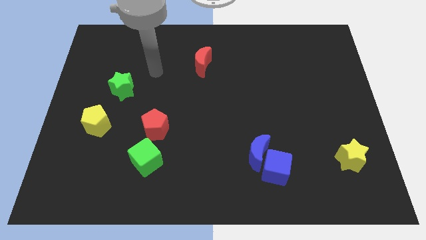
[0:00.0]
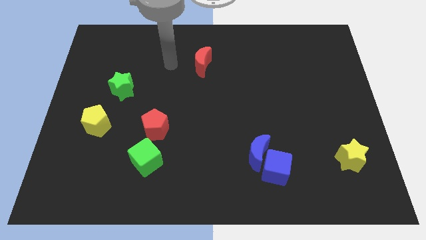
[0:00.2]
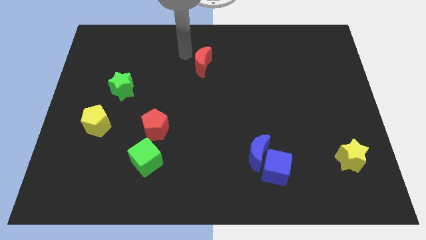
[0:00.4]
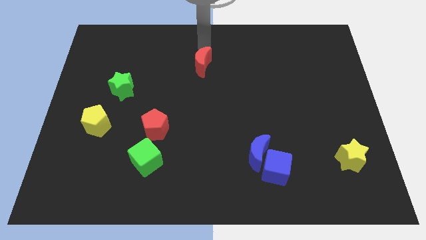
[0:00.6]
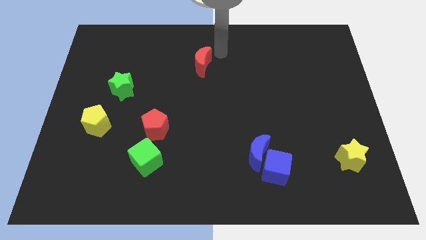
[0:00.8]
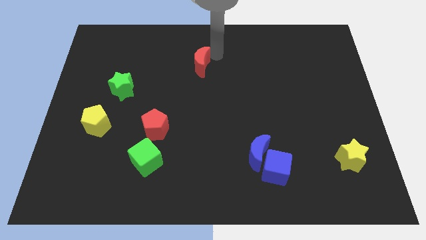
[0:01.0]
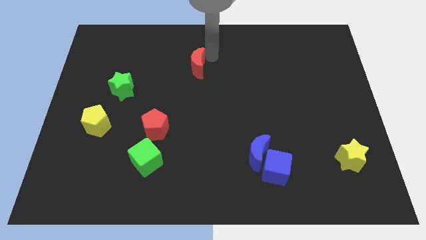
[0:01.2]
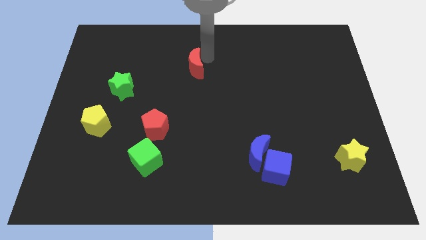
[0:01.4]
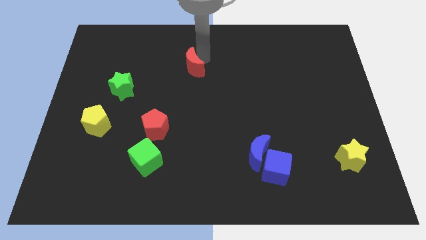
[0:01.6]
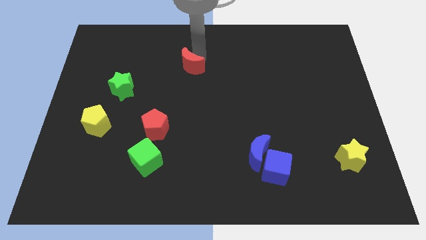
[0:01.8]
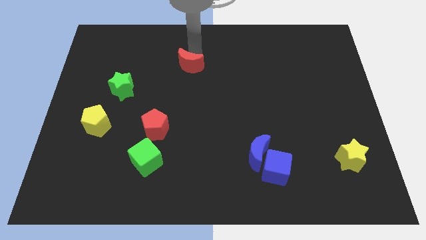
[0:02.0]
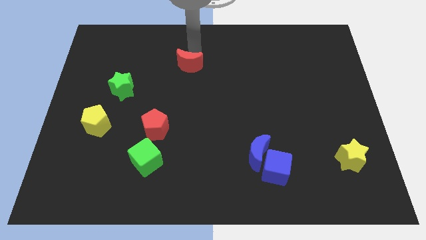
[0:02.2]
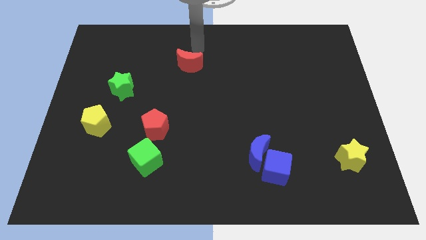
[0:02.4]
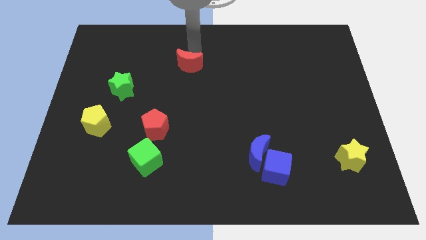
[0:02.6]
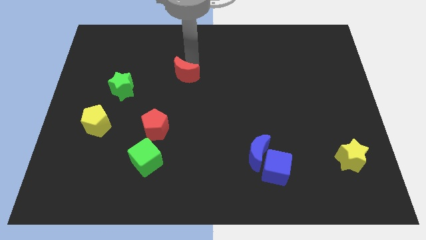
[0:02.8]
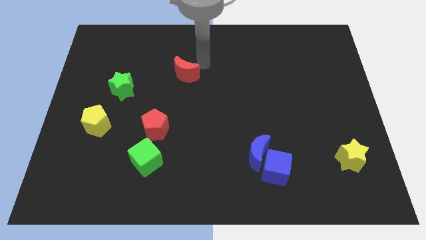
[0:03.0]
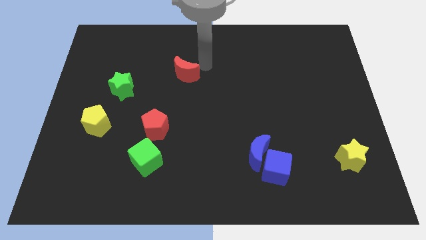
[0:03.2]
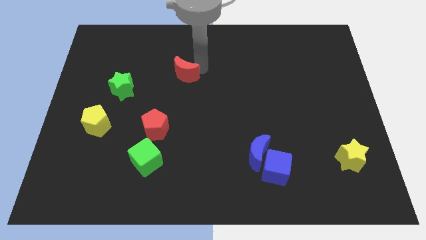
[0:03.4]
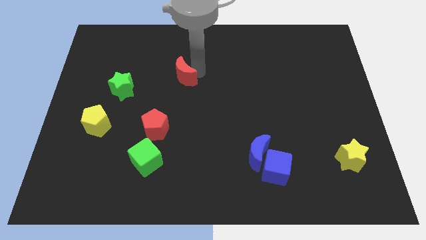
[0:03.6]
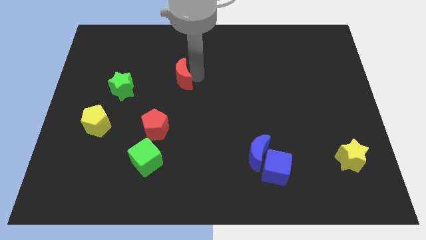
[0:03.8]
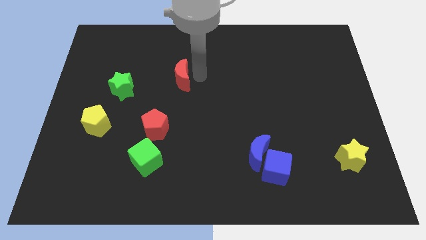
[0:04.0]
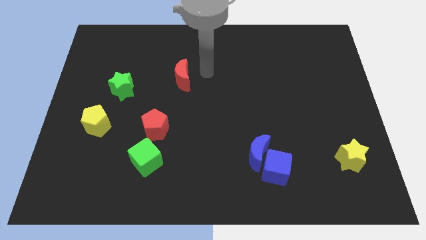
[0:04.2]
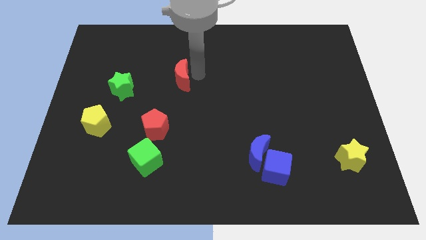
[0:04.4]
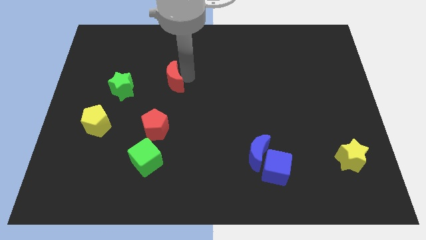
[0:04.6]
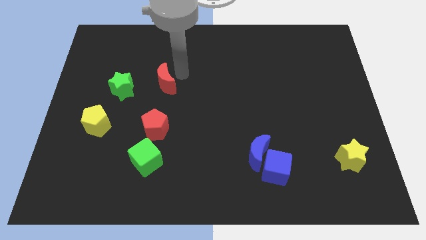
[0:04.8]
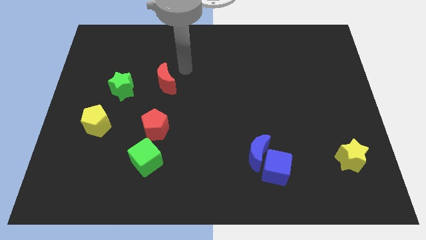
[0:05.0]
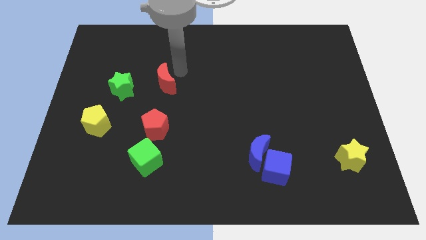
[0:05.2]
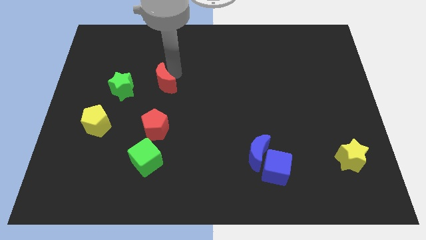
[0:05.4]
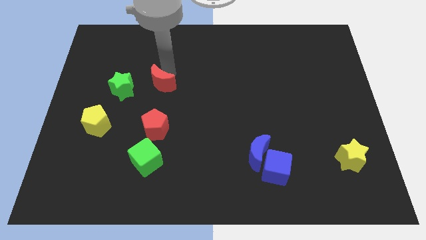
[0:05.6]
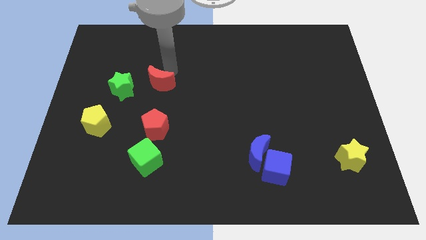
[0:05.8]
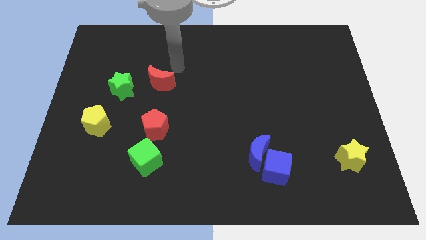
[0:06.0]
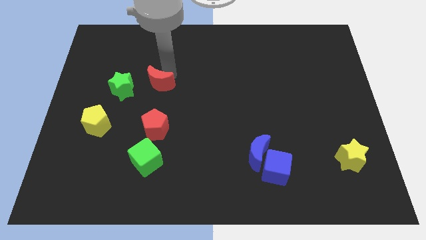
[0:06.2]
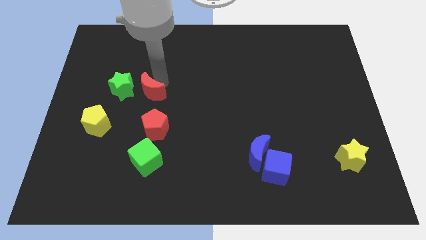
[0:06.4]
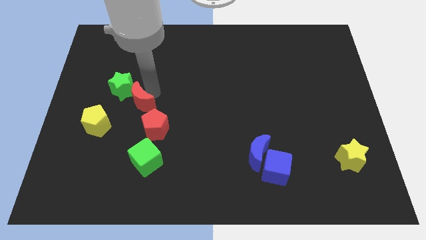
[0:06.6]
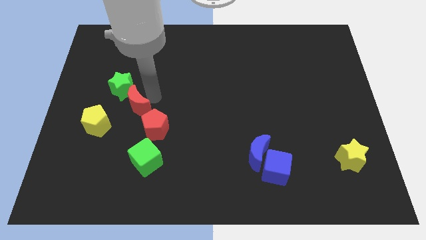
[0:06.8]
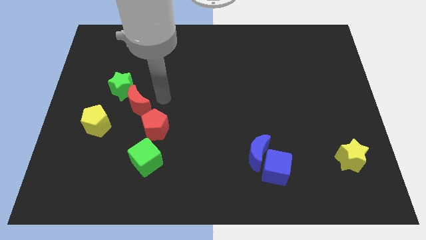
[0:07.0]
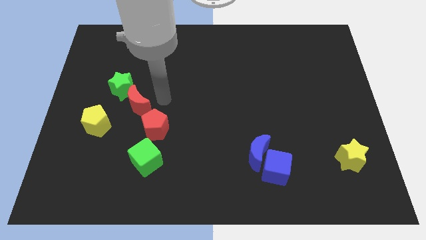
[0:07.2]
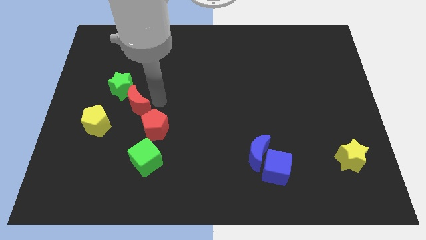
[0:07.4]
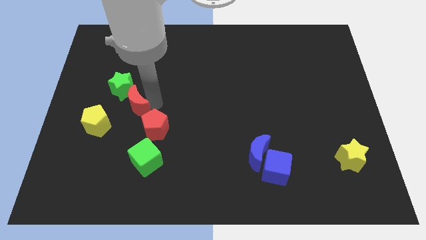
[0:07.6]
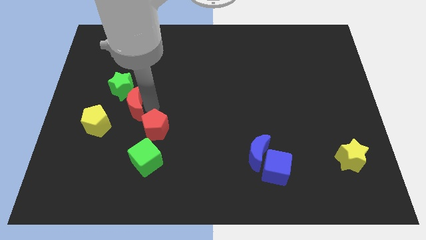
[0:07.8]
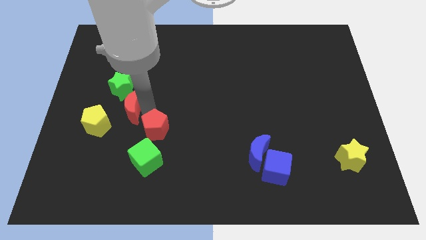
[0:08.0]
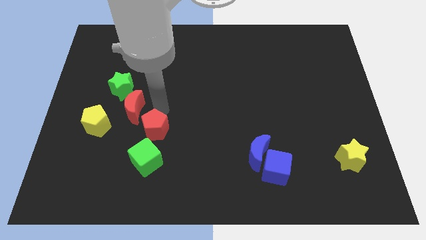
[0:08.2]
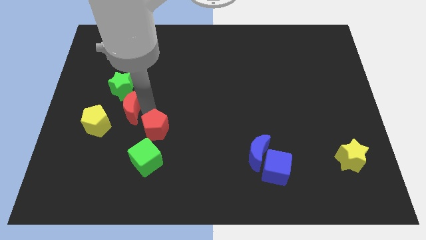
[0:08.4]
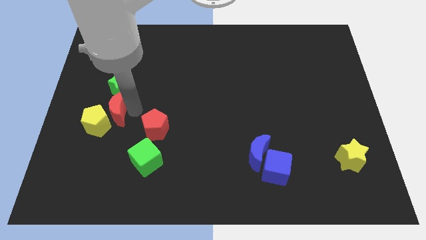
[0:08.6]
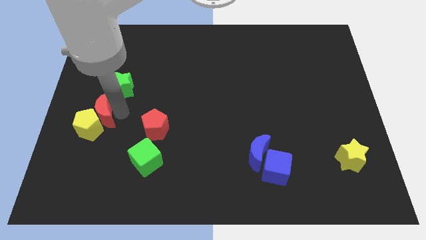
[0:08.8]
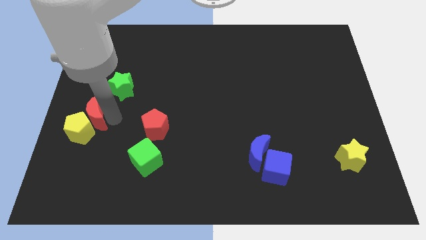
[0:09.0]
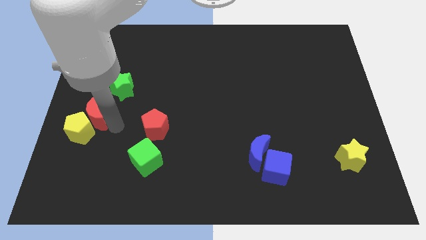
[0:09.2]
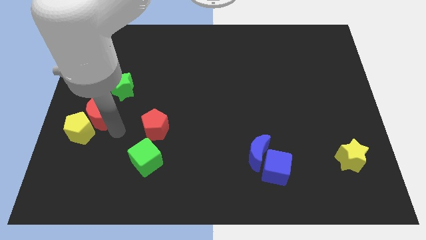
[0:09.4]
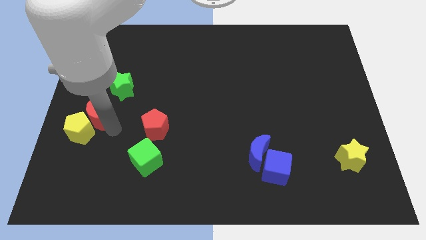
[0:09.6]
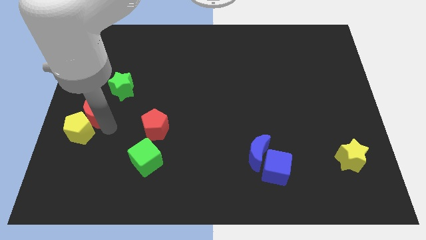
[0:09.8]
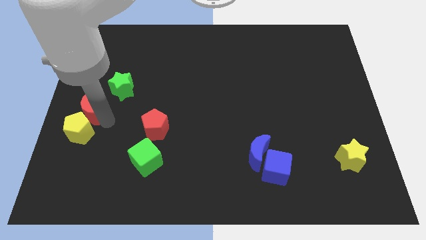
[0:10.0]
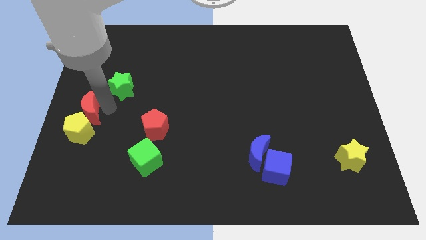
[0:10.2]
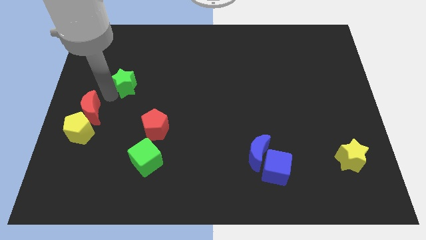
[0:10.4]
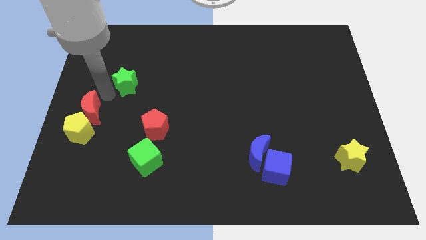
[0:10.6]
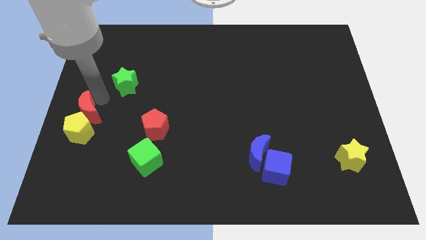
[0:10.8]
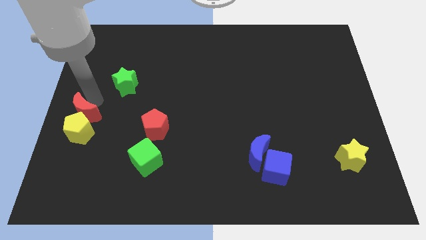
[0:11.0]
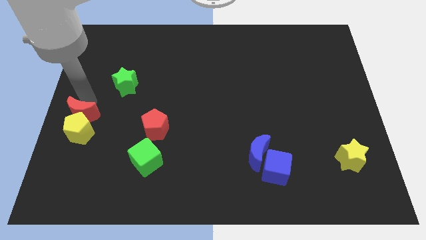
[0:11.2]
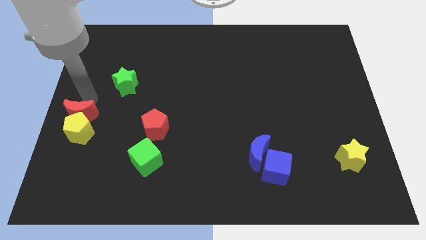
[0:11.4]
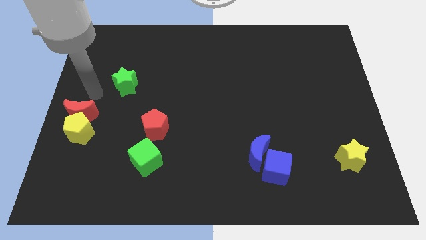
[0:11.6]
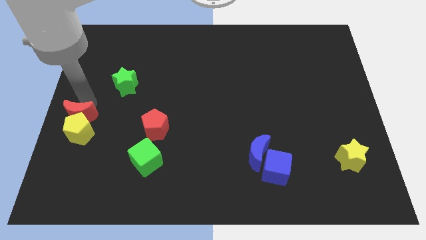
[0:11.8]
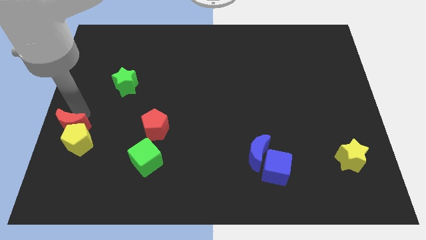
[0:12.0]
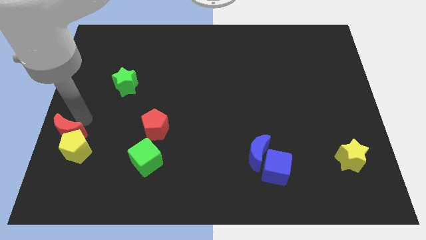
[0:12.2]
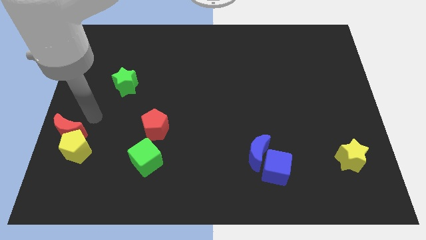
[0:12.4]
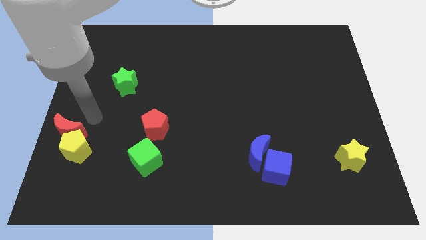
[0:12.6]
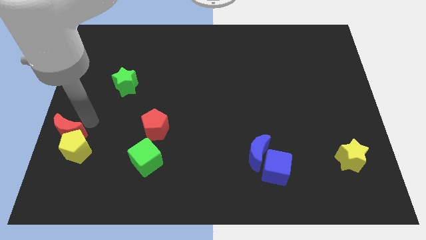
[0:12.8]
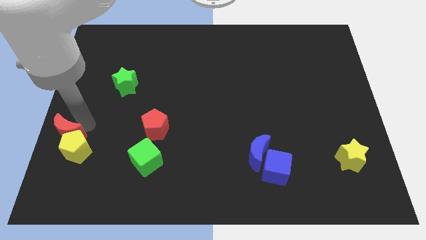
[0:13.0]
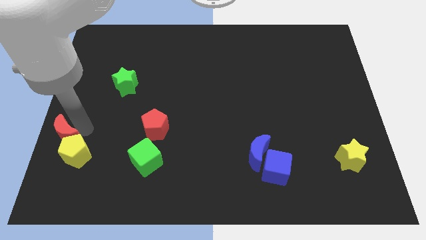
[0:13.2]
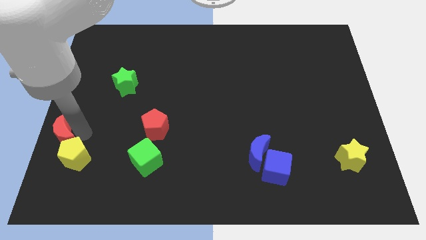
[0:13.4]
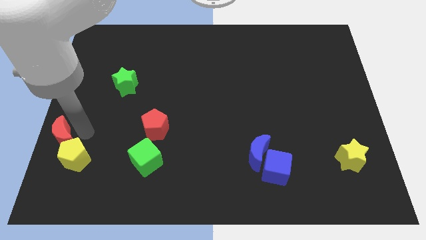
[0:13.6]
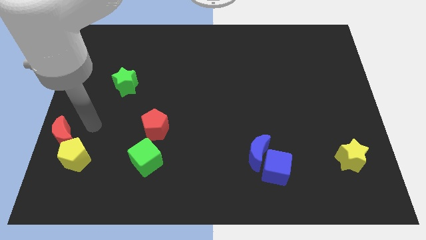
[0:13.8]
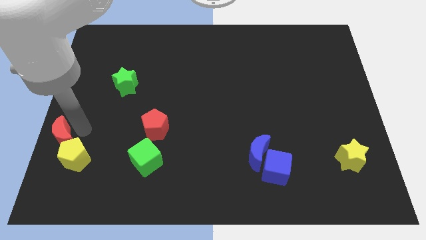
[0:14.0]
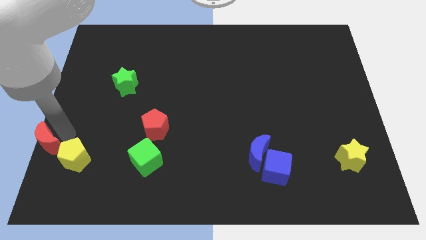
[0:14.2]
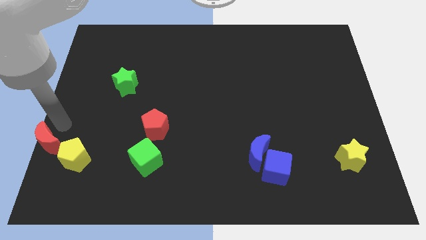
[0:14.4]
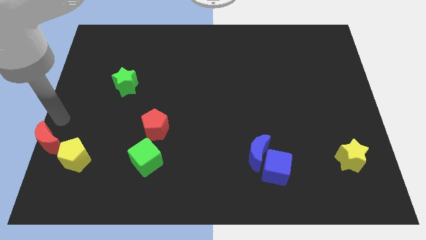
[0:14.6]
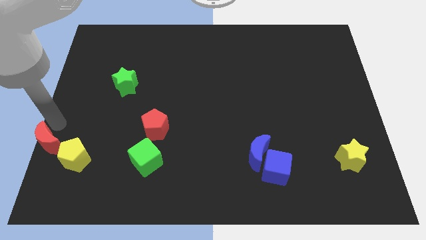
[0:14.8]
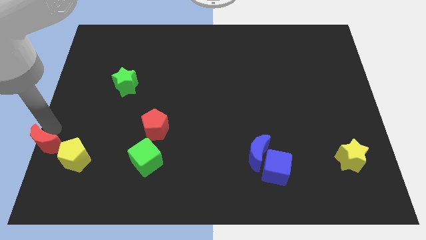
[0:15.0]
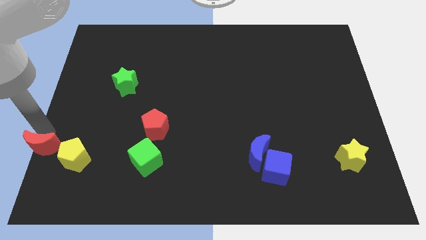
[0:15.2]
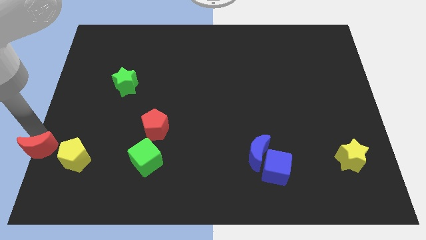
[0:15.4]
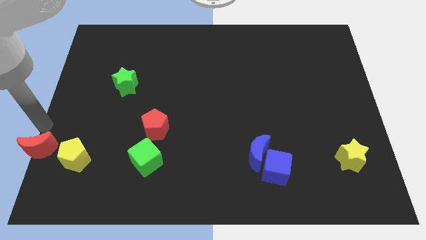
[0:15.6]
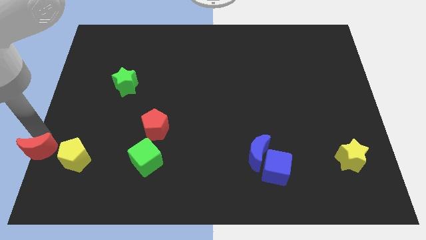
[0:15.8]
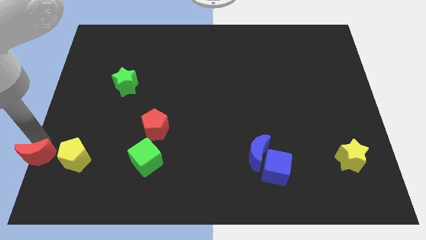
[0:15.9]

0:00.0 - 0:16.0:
put the red moon to the bottom left
